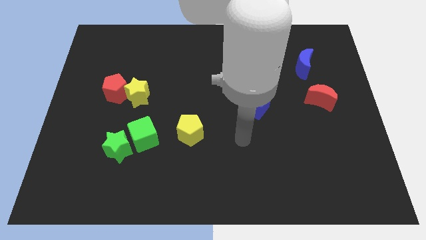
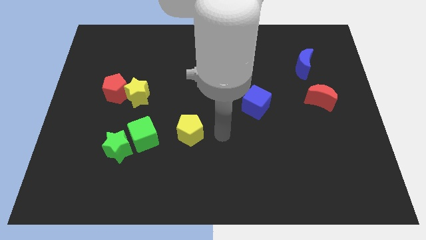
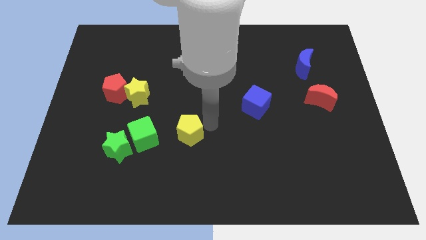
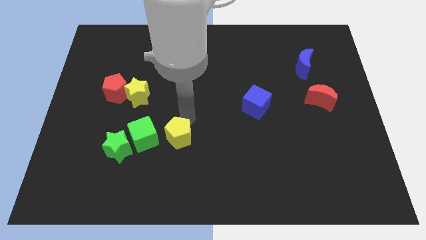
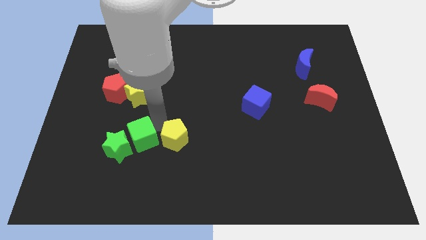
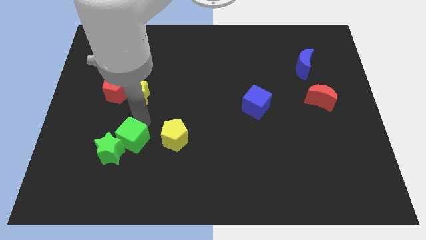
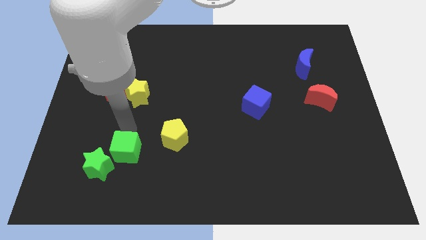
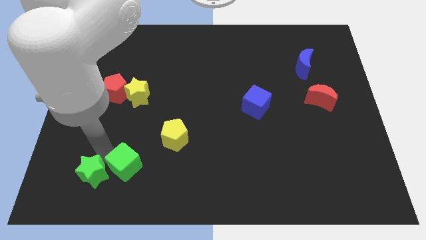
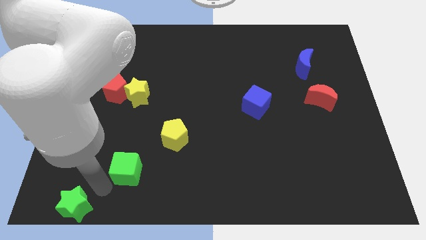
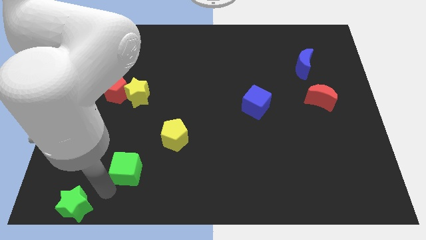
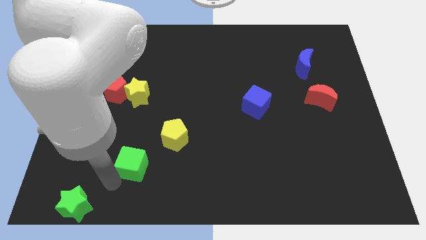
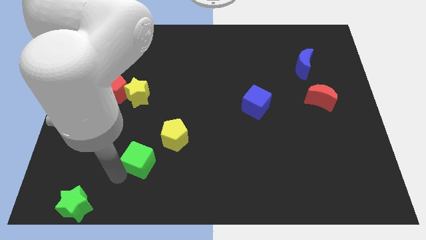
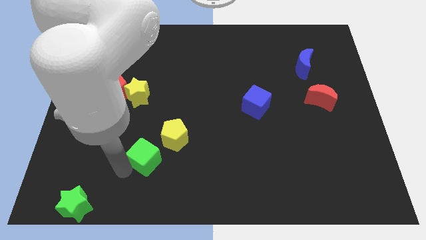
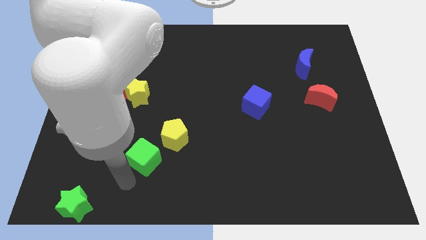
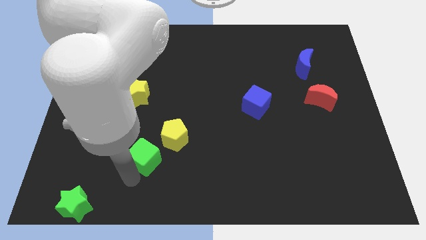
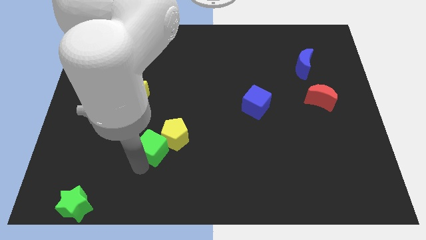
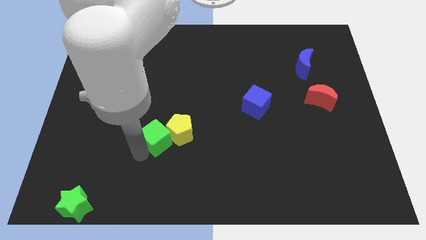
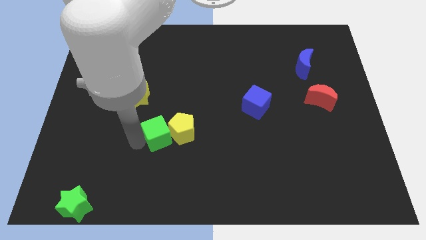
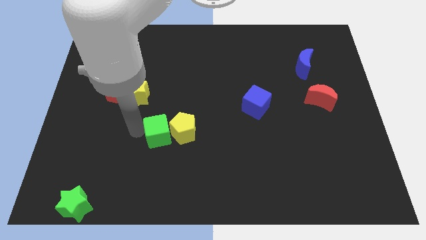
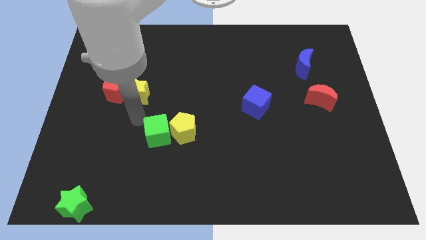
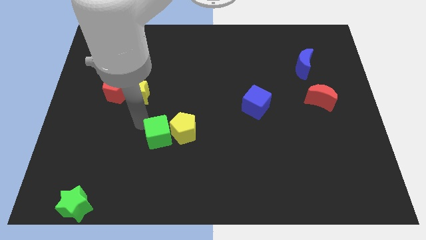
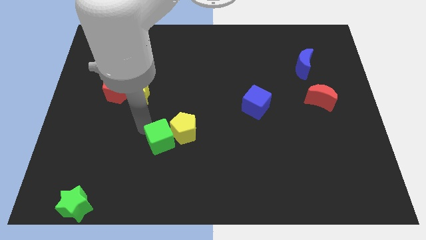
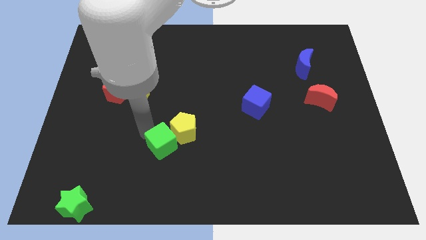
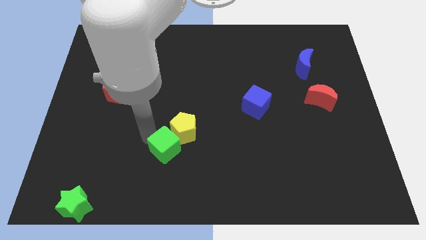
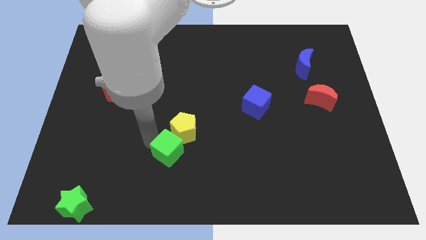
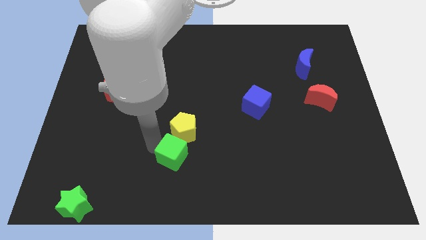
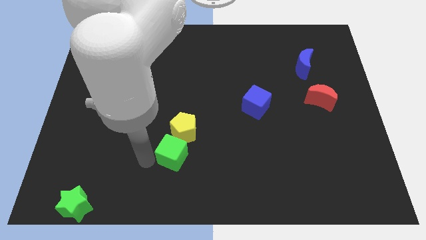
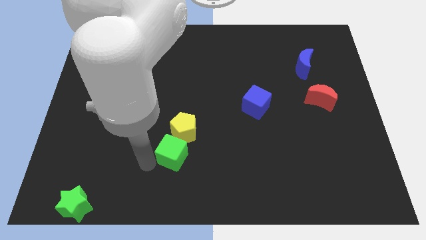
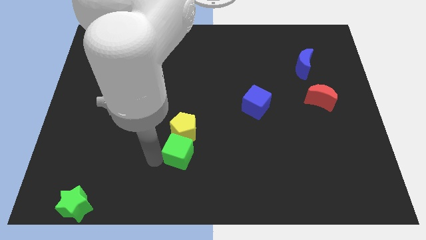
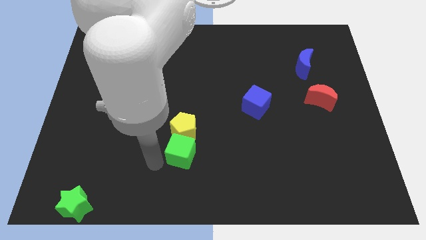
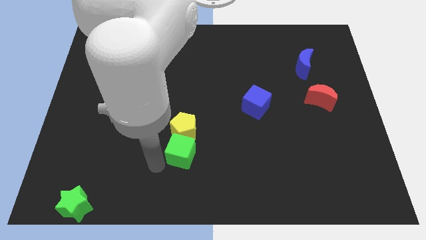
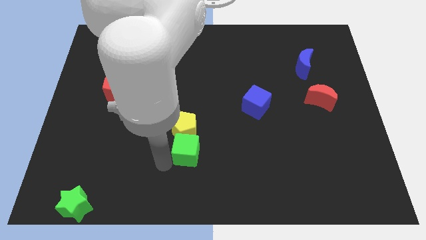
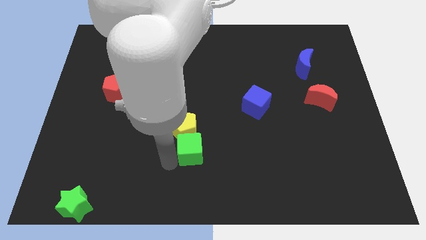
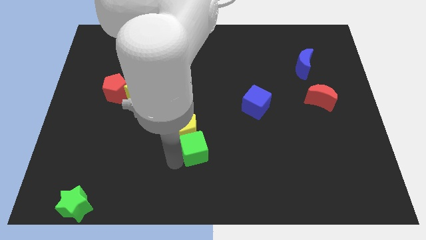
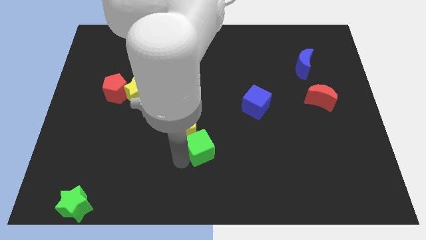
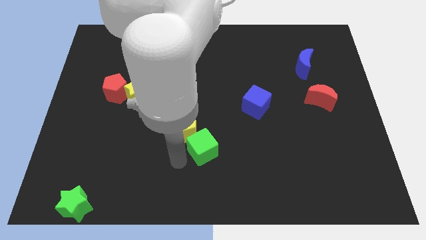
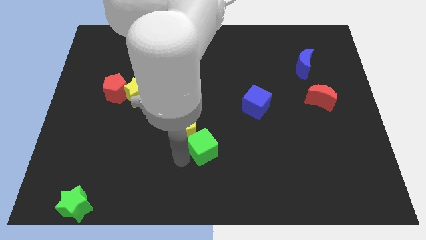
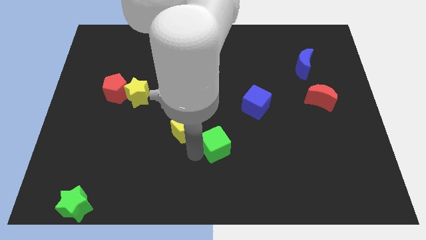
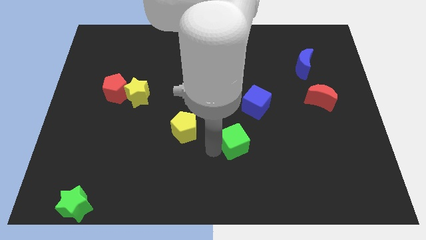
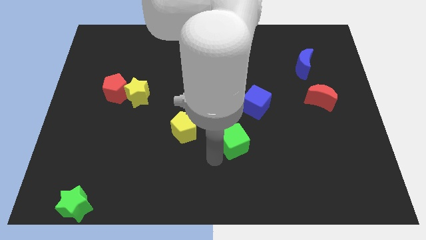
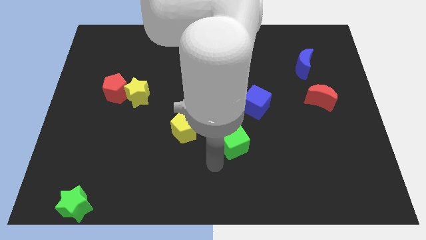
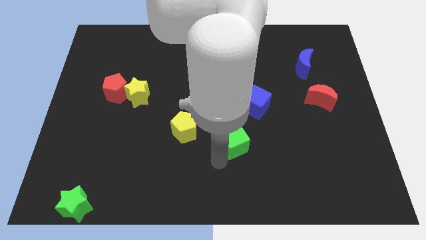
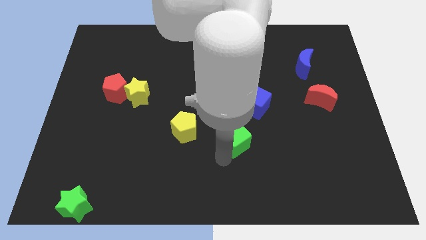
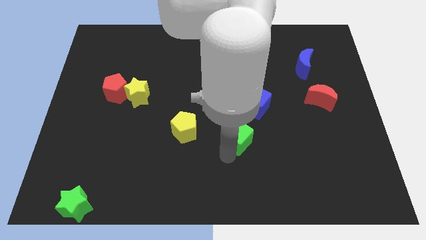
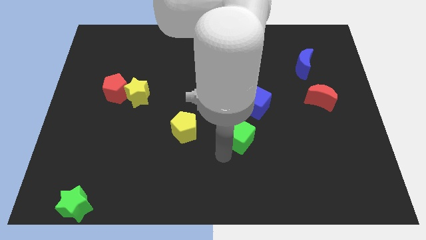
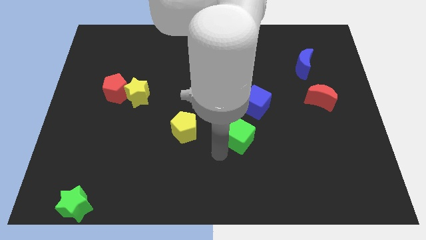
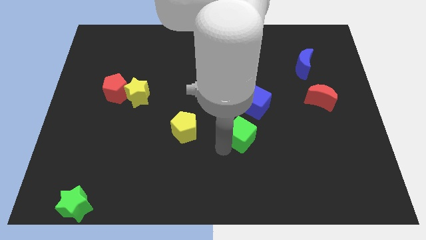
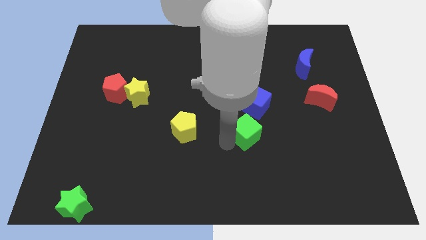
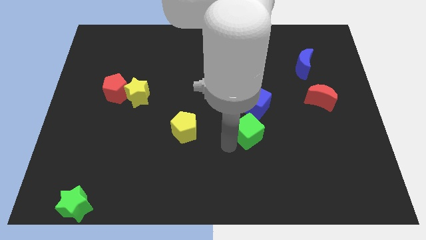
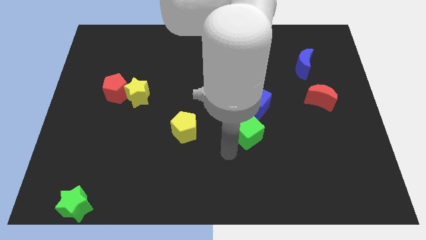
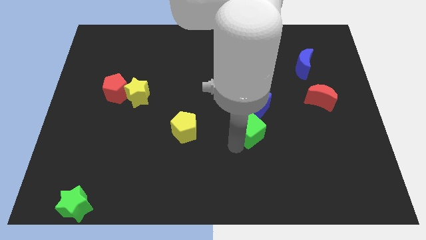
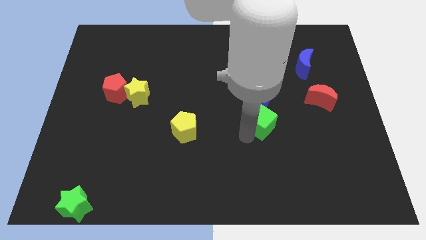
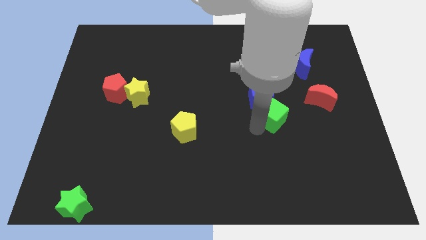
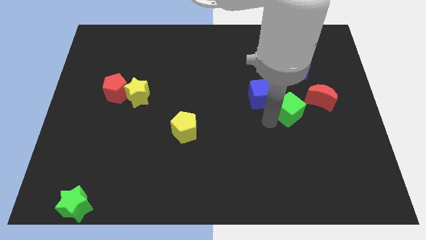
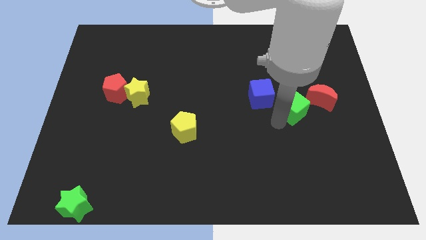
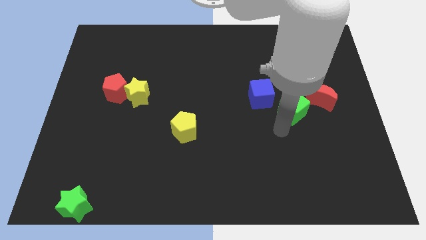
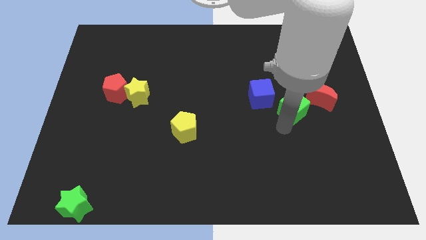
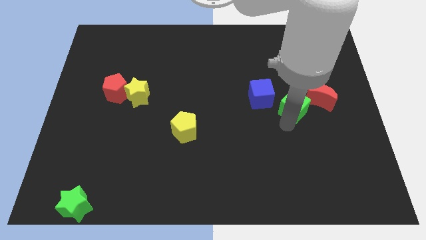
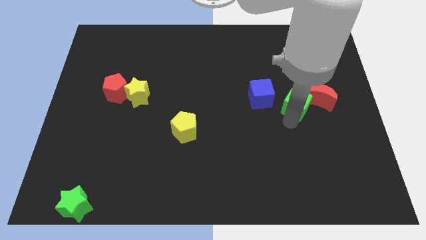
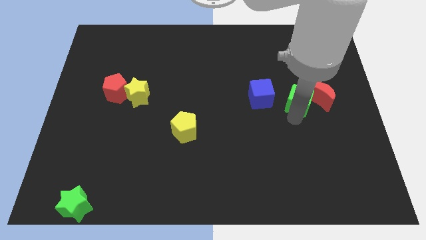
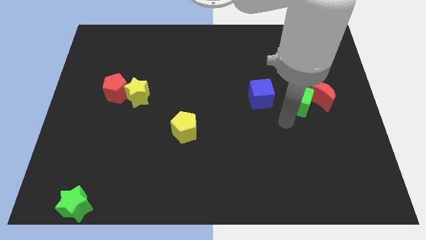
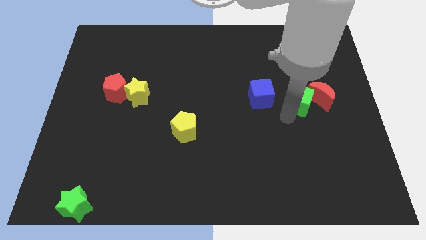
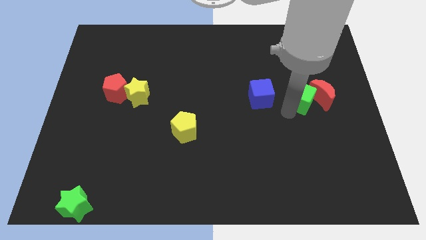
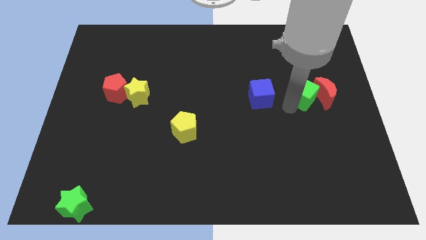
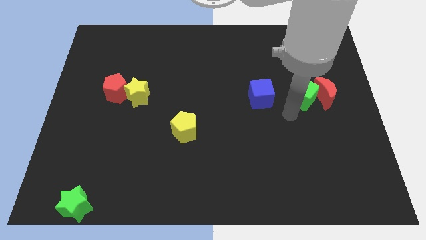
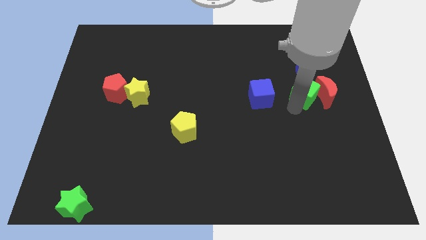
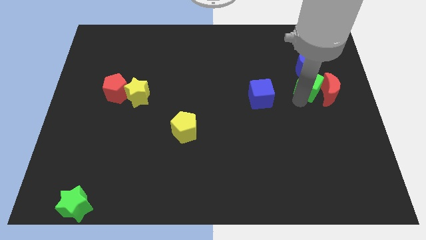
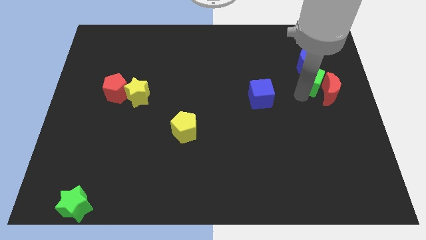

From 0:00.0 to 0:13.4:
put the green cube to the bottom right of the blue moon
